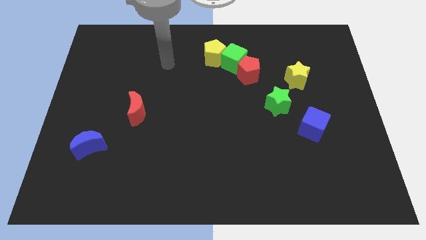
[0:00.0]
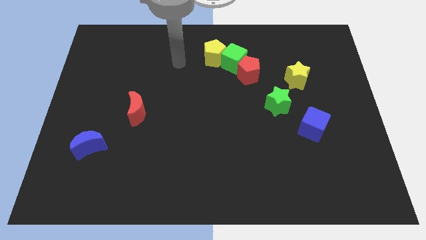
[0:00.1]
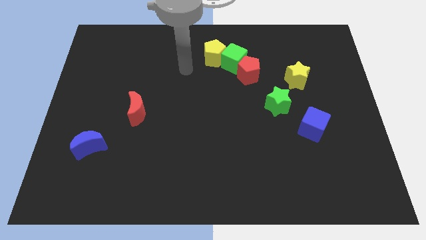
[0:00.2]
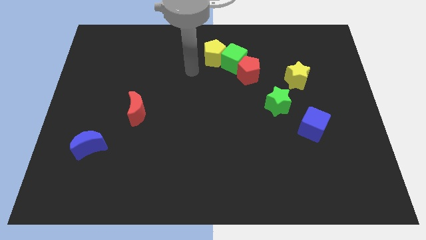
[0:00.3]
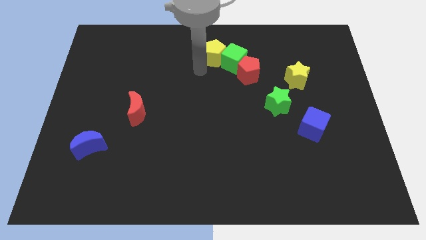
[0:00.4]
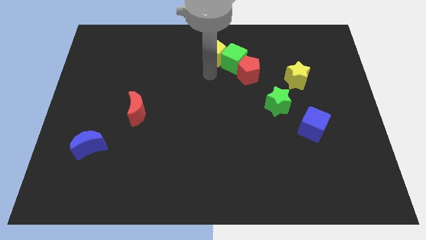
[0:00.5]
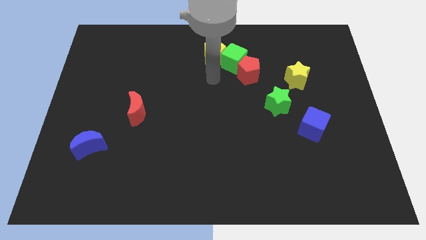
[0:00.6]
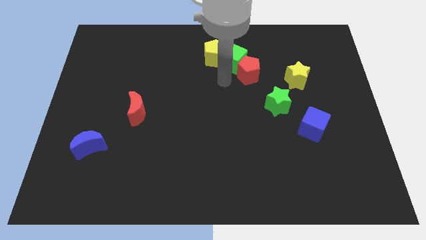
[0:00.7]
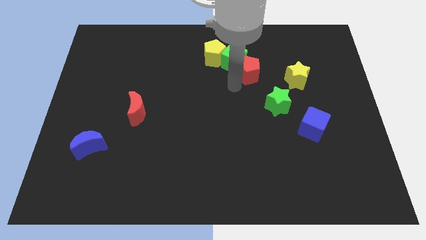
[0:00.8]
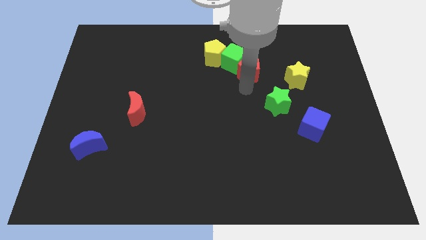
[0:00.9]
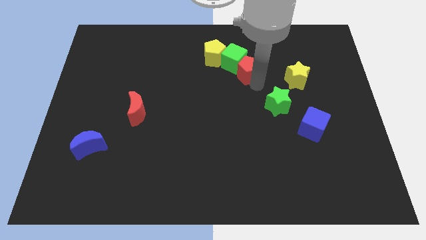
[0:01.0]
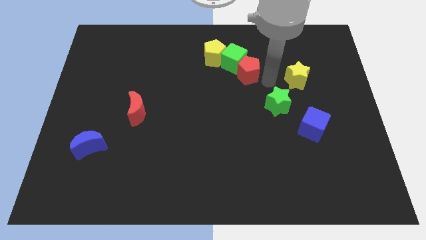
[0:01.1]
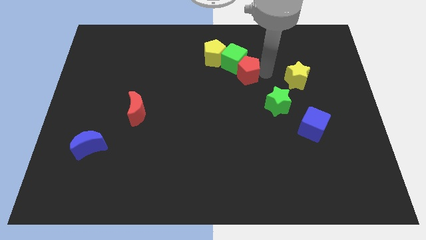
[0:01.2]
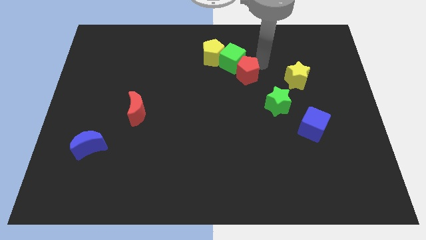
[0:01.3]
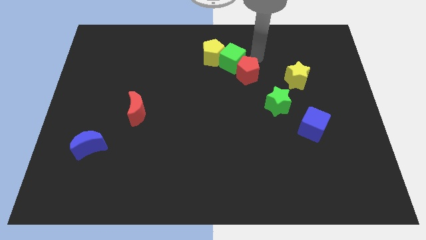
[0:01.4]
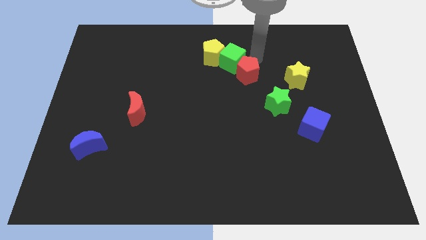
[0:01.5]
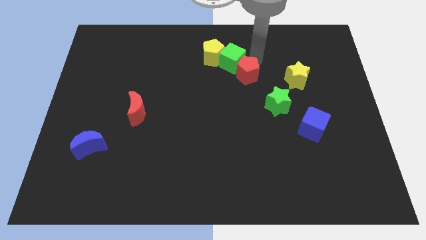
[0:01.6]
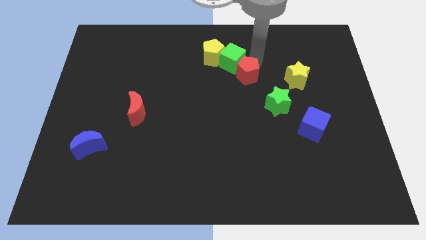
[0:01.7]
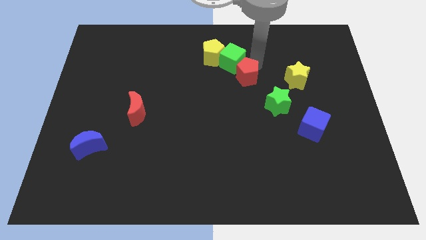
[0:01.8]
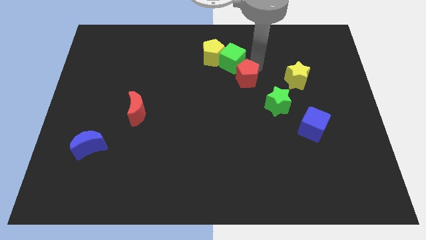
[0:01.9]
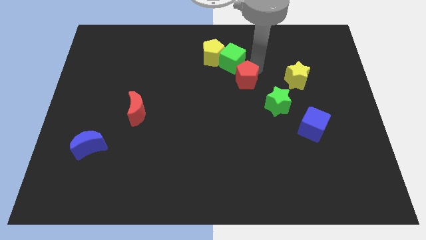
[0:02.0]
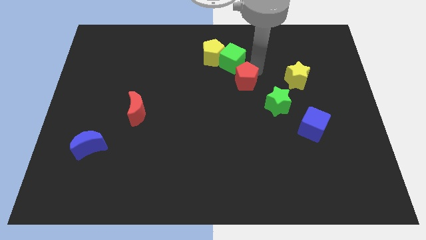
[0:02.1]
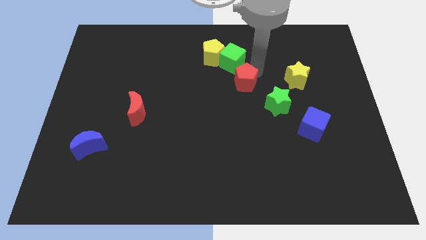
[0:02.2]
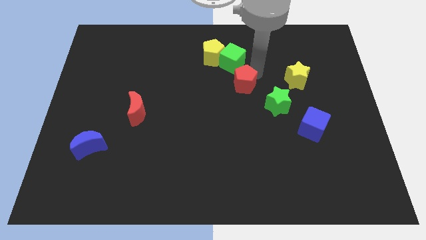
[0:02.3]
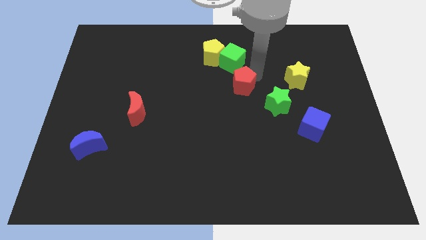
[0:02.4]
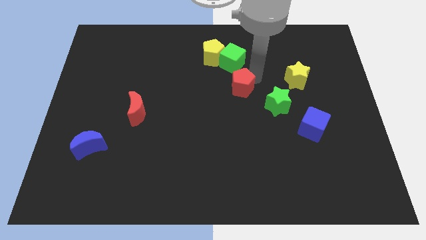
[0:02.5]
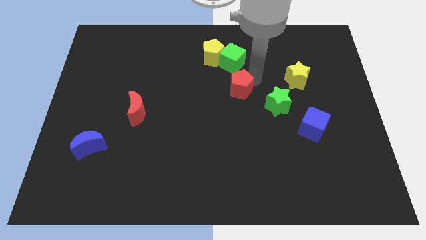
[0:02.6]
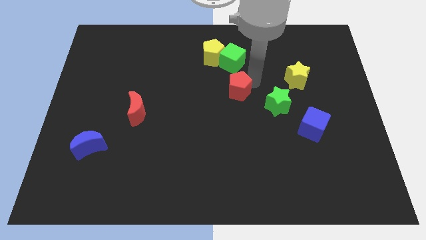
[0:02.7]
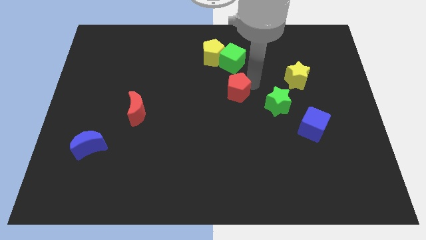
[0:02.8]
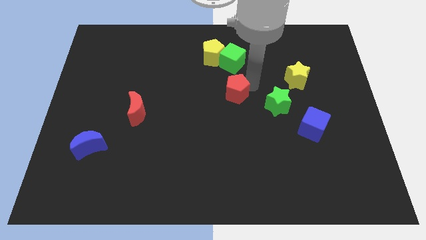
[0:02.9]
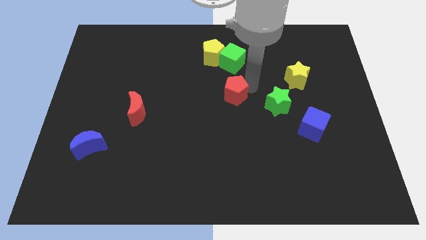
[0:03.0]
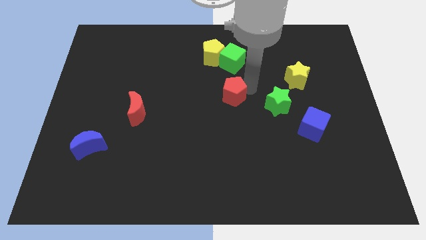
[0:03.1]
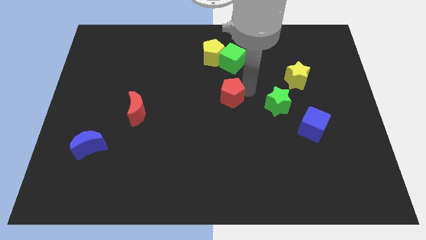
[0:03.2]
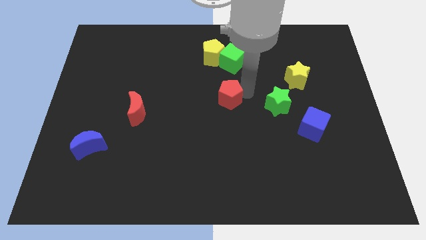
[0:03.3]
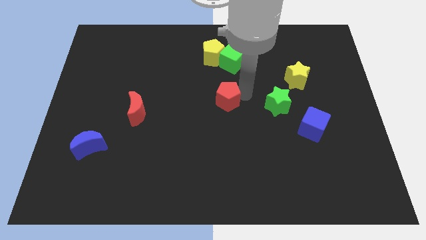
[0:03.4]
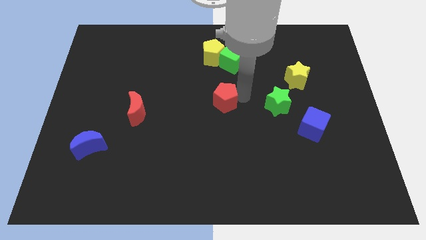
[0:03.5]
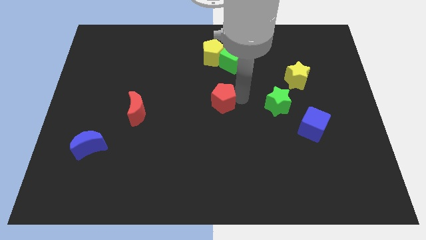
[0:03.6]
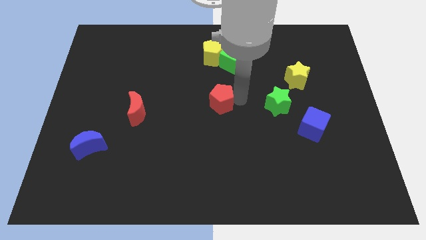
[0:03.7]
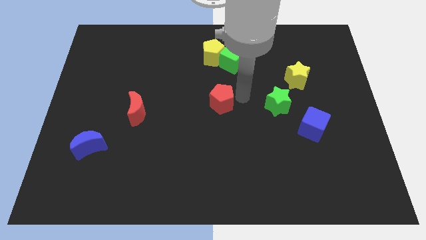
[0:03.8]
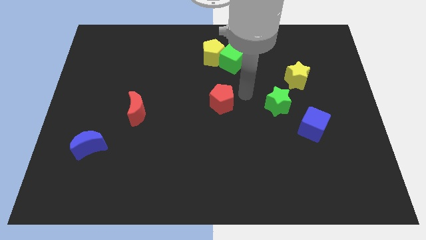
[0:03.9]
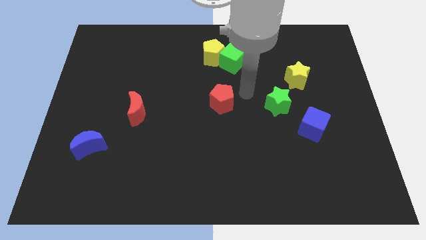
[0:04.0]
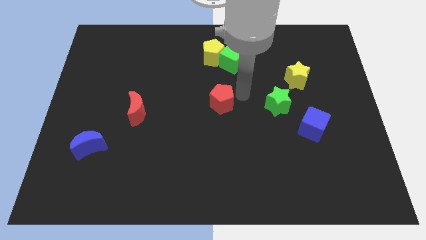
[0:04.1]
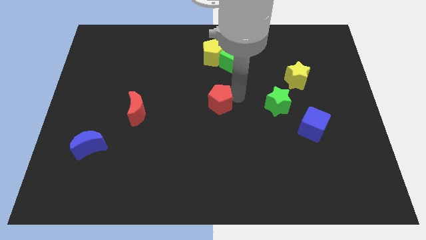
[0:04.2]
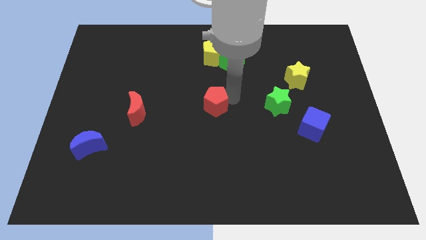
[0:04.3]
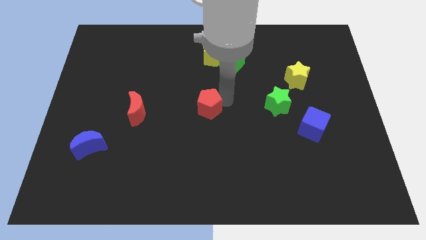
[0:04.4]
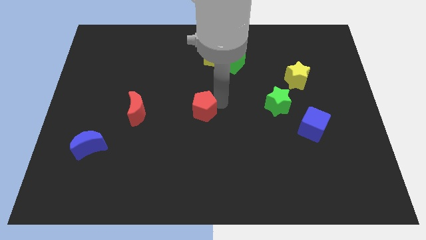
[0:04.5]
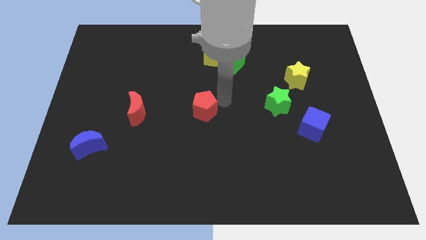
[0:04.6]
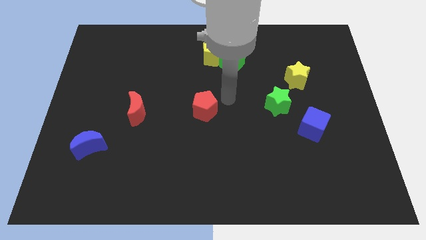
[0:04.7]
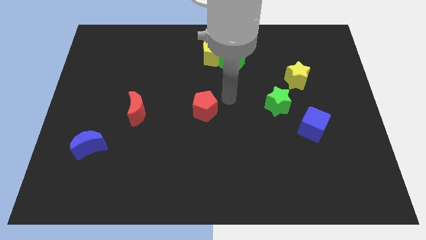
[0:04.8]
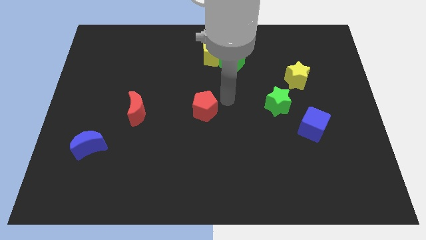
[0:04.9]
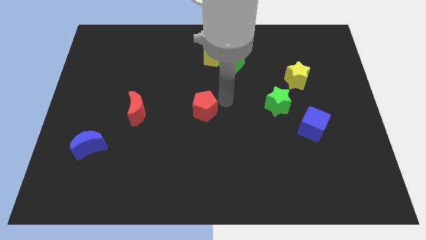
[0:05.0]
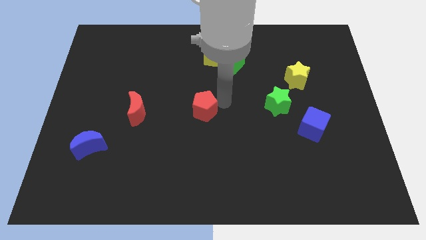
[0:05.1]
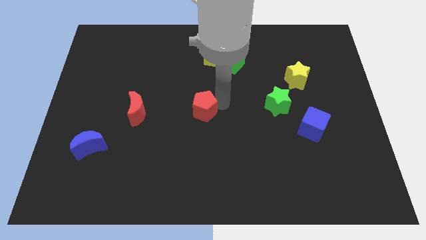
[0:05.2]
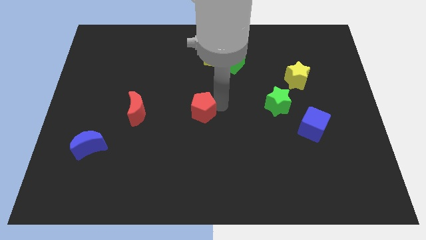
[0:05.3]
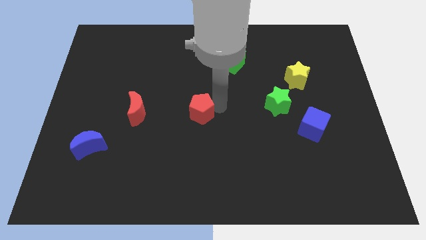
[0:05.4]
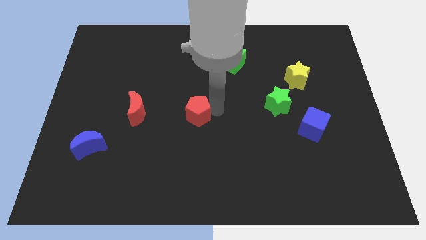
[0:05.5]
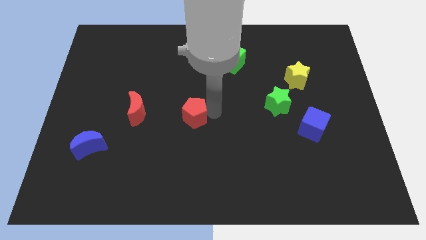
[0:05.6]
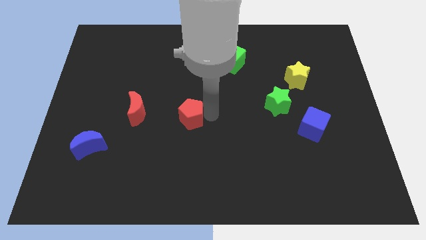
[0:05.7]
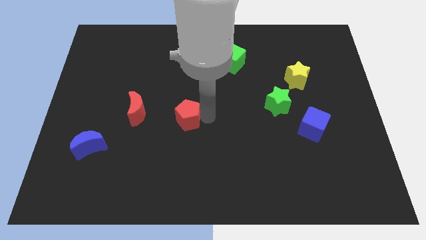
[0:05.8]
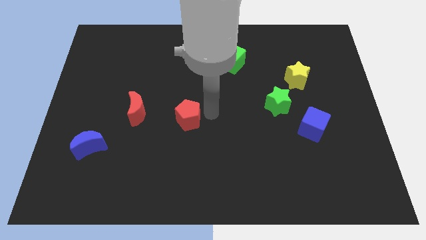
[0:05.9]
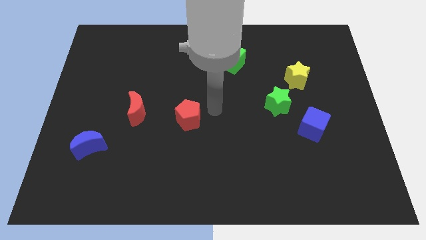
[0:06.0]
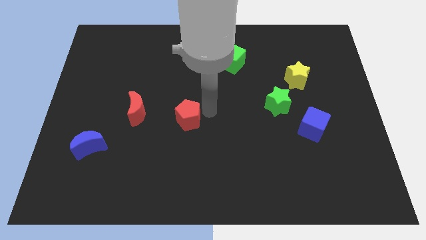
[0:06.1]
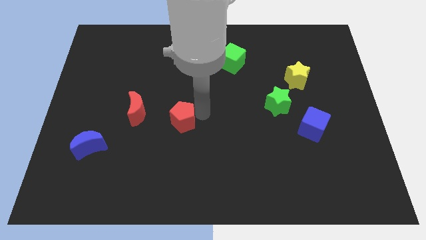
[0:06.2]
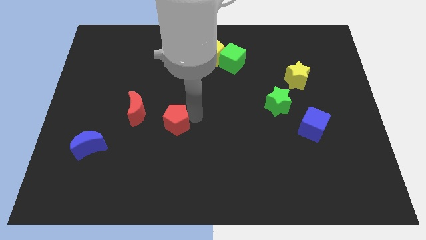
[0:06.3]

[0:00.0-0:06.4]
put the red pentagon to the bottom right side of the red moon

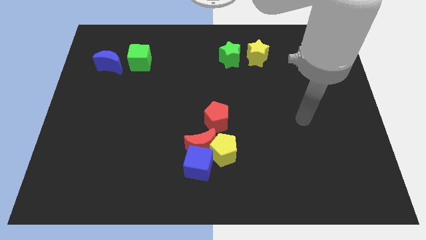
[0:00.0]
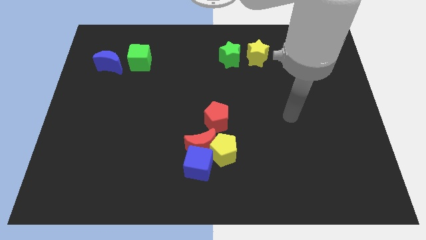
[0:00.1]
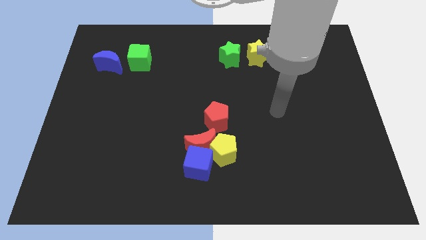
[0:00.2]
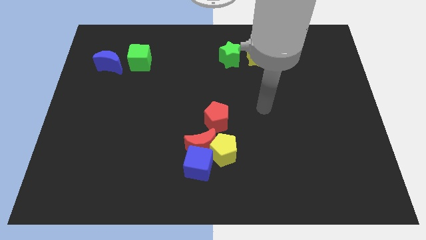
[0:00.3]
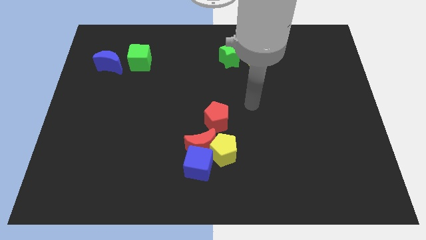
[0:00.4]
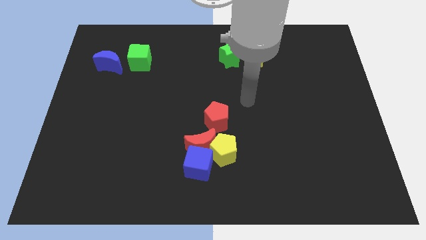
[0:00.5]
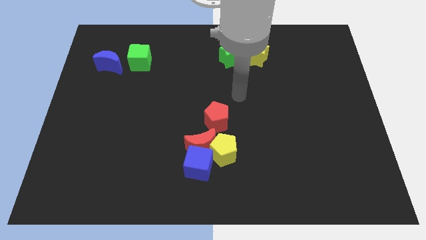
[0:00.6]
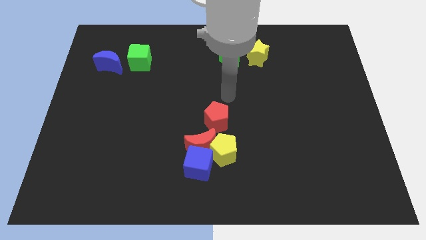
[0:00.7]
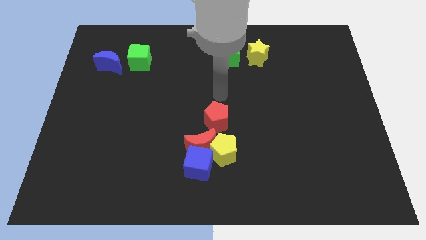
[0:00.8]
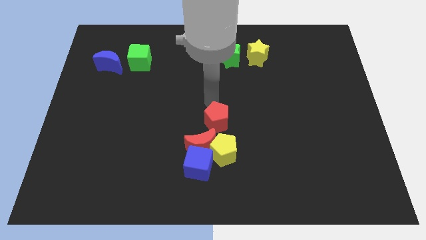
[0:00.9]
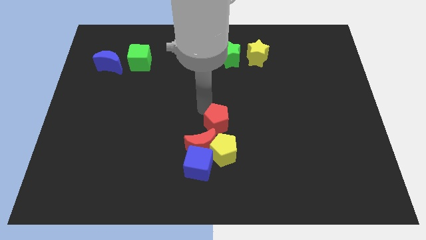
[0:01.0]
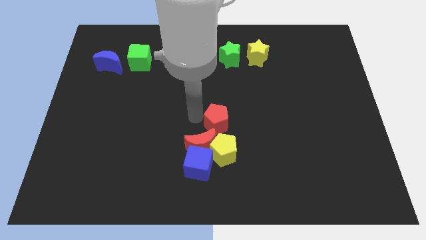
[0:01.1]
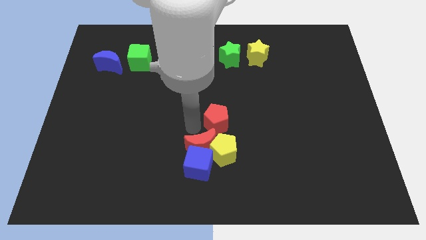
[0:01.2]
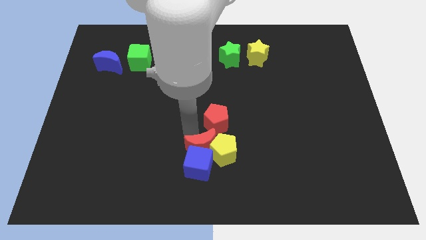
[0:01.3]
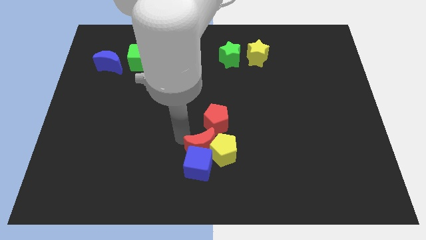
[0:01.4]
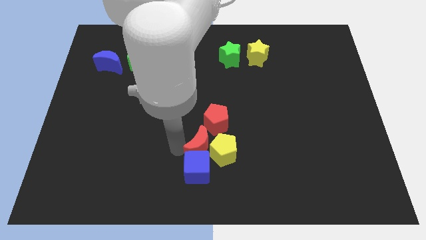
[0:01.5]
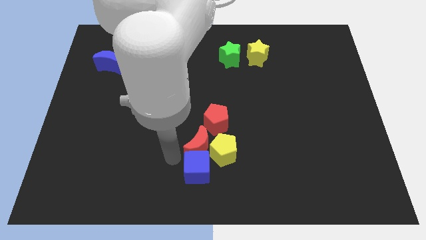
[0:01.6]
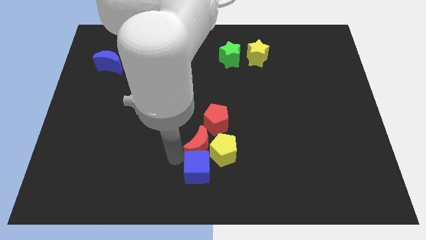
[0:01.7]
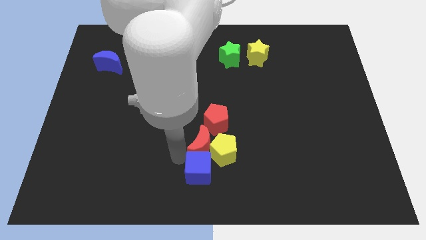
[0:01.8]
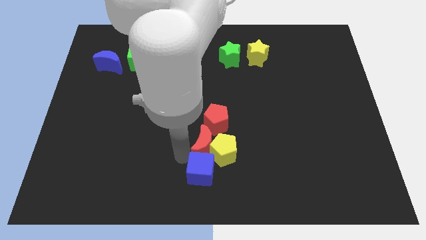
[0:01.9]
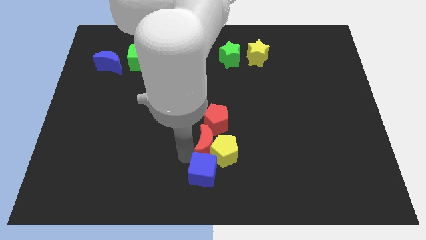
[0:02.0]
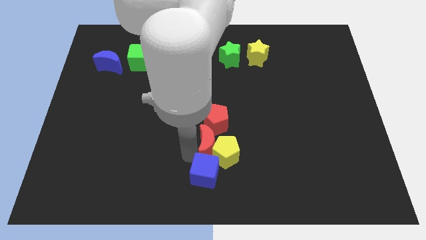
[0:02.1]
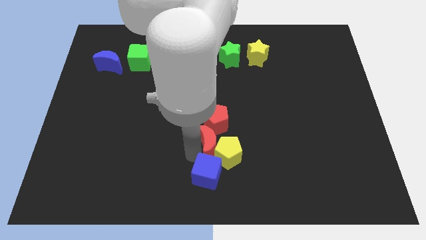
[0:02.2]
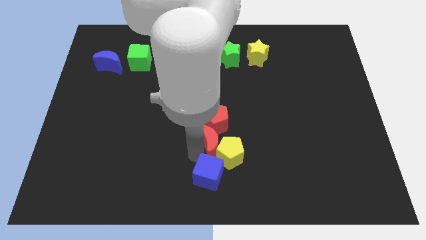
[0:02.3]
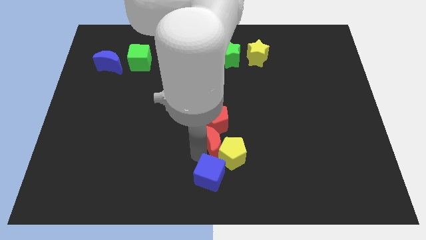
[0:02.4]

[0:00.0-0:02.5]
slide the red moon to the bottom right side of the red pentagon
